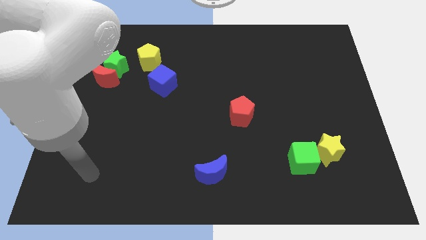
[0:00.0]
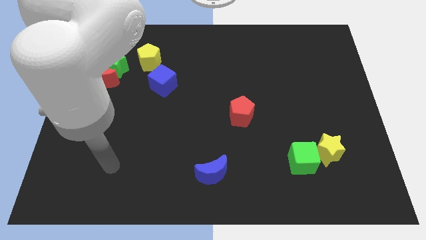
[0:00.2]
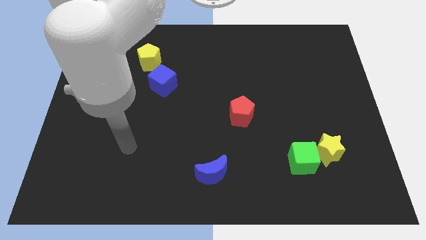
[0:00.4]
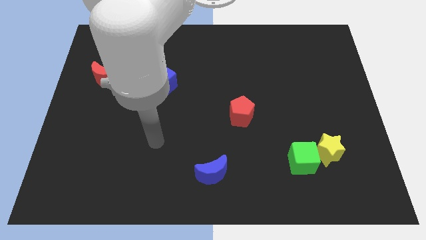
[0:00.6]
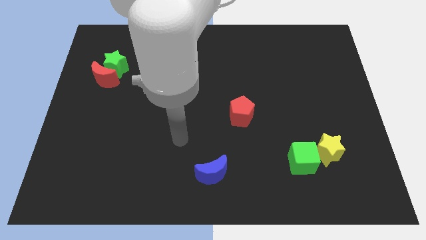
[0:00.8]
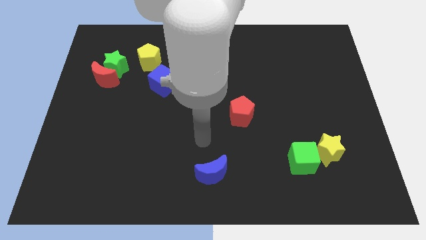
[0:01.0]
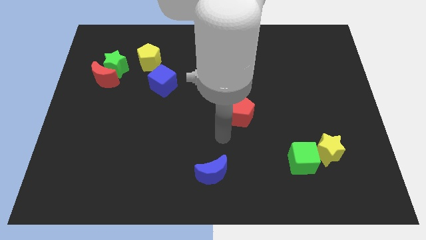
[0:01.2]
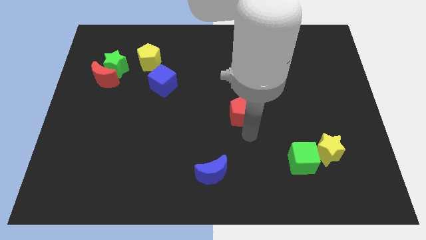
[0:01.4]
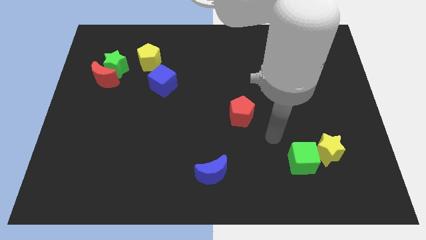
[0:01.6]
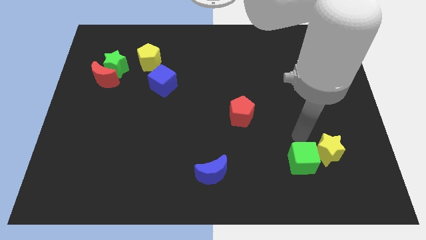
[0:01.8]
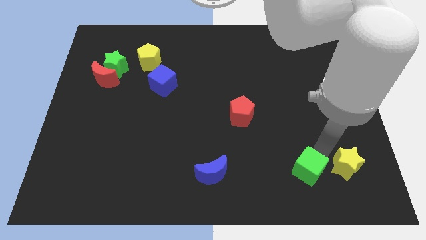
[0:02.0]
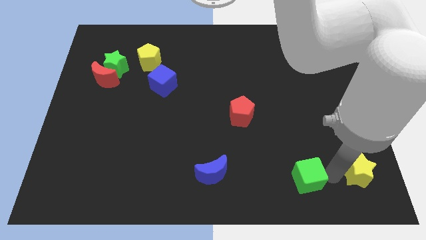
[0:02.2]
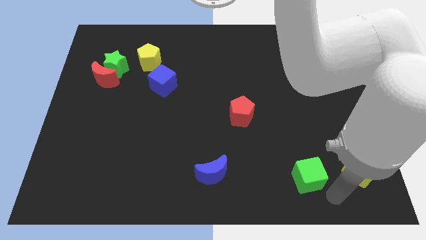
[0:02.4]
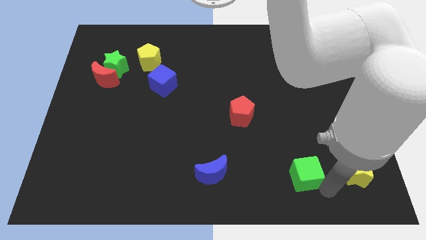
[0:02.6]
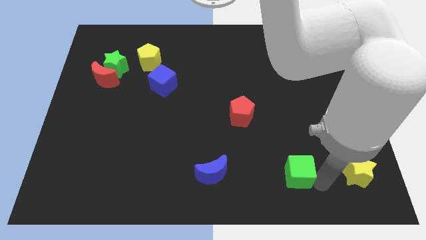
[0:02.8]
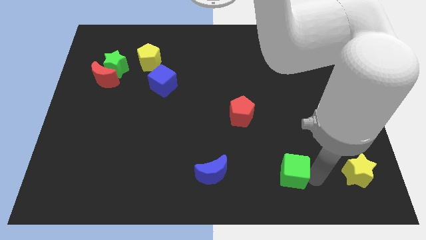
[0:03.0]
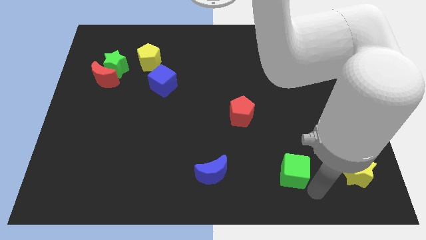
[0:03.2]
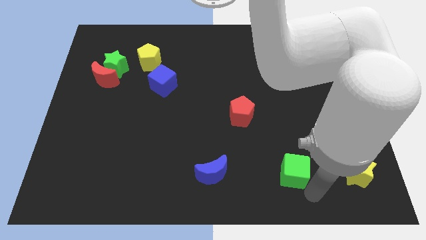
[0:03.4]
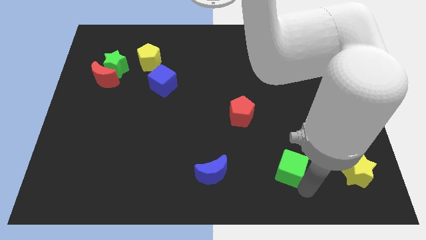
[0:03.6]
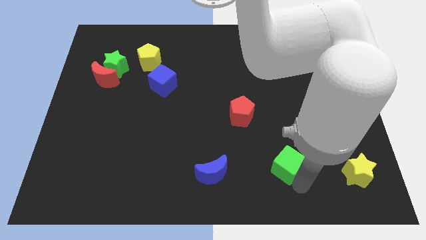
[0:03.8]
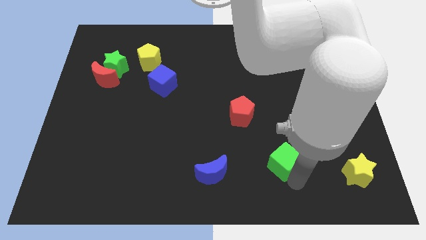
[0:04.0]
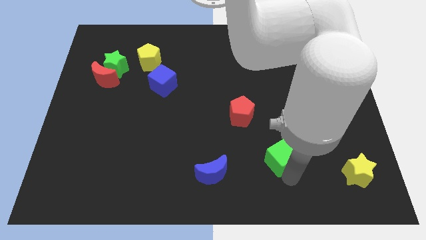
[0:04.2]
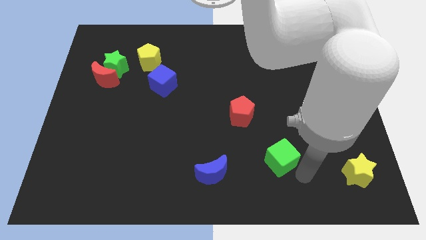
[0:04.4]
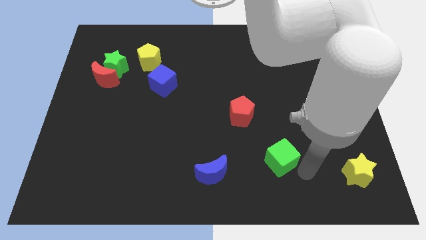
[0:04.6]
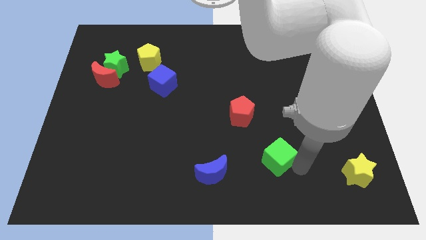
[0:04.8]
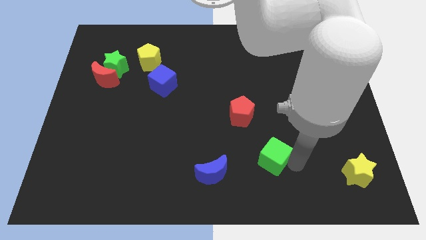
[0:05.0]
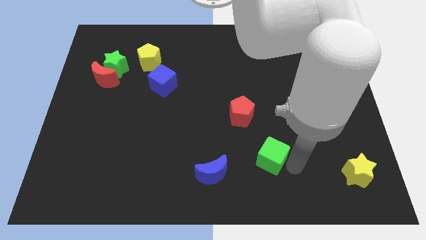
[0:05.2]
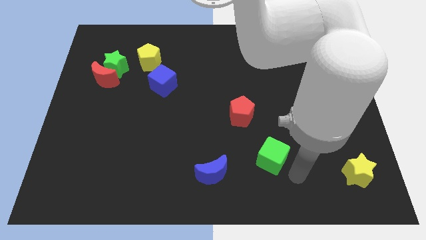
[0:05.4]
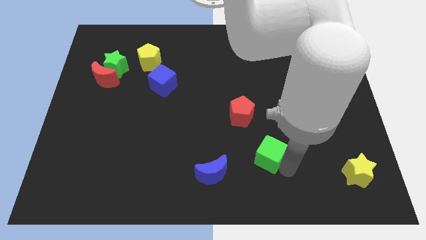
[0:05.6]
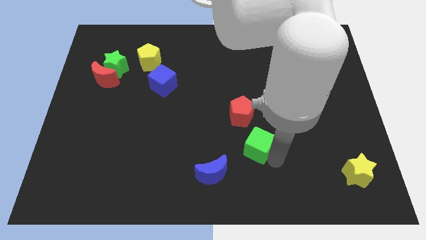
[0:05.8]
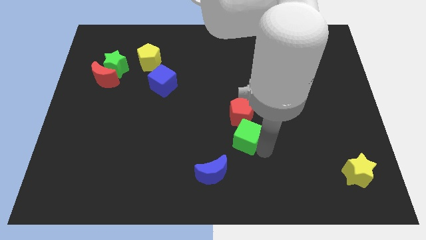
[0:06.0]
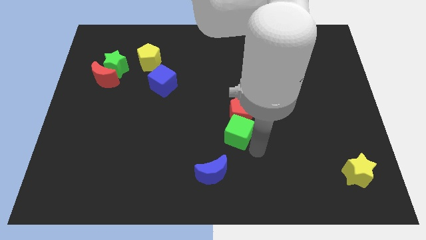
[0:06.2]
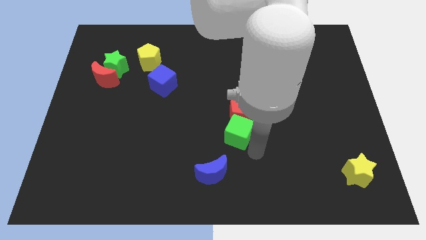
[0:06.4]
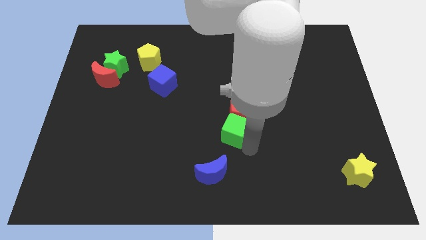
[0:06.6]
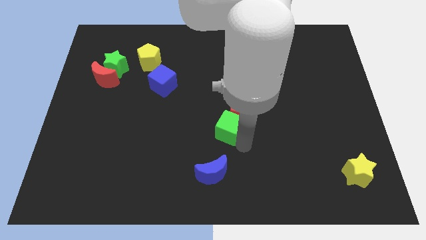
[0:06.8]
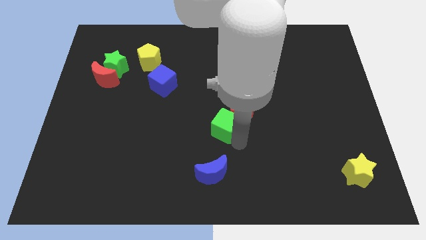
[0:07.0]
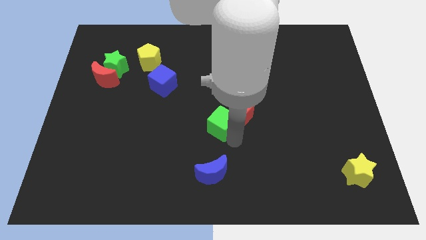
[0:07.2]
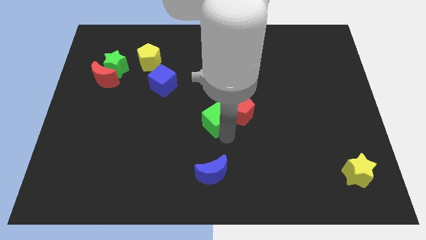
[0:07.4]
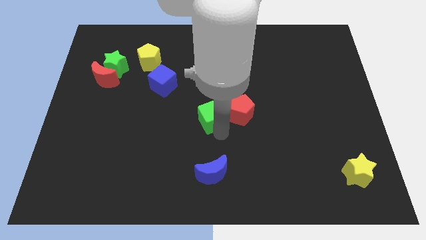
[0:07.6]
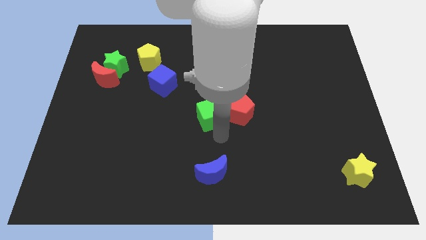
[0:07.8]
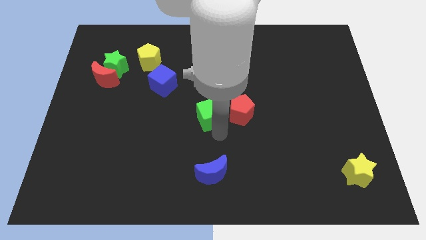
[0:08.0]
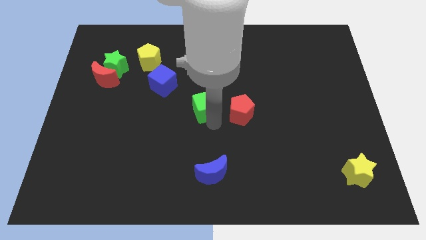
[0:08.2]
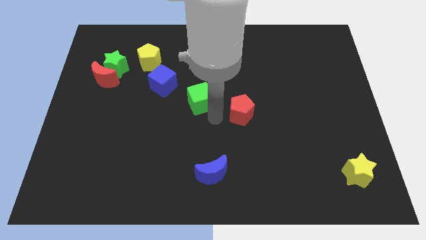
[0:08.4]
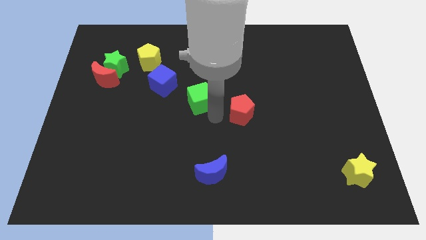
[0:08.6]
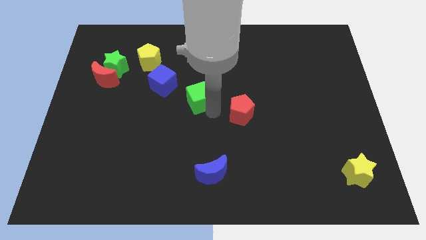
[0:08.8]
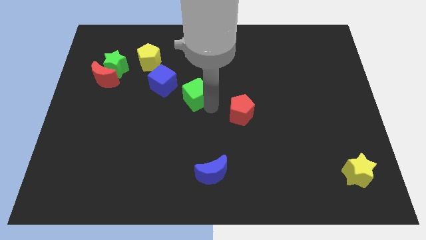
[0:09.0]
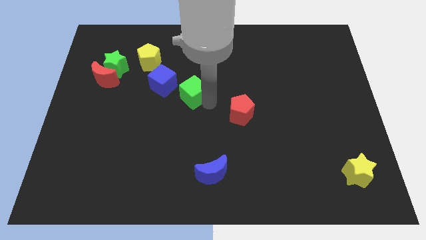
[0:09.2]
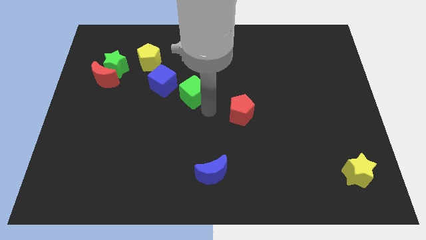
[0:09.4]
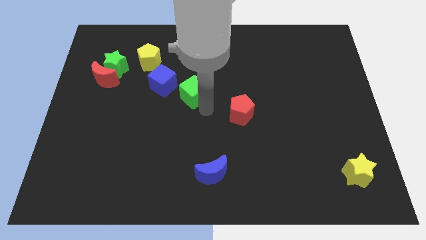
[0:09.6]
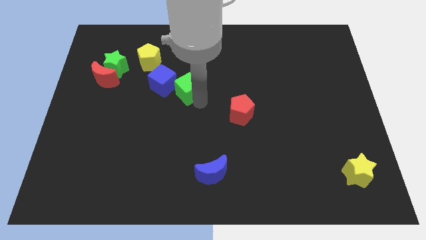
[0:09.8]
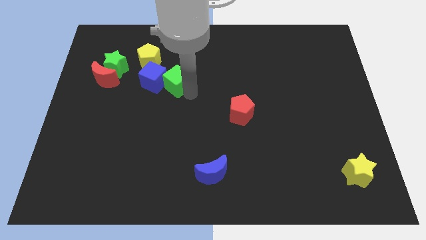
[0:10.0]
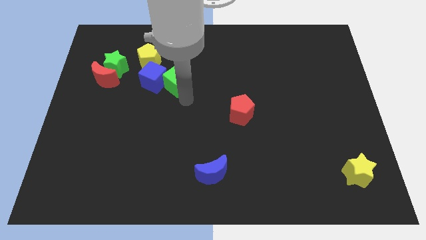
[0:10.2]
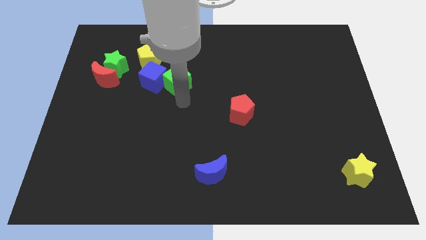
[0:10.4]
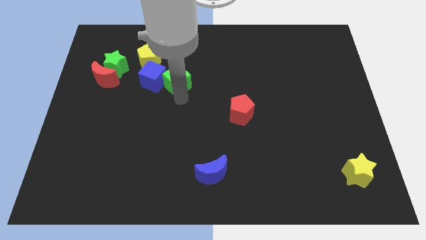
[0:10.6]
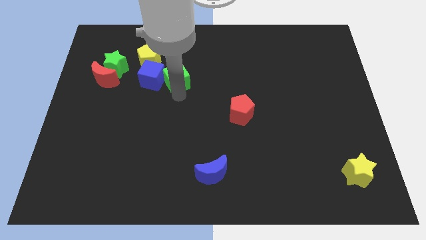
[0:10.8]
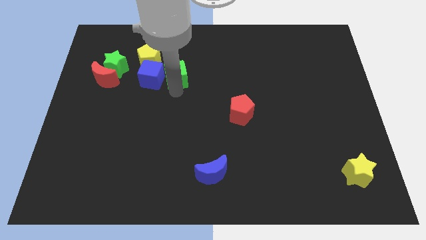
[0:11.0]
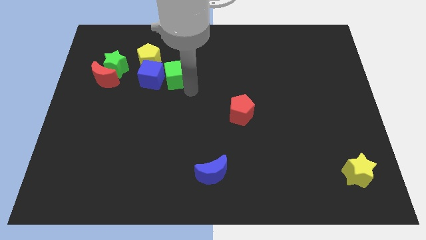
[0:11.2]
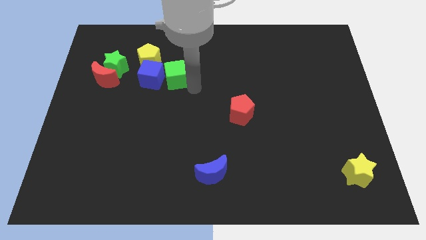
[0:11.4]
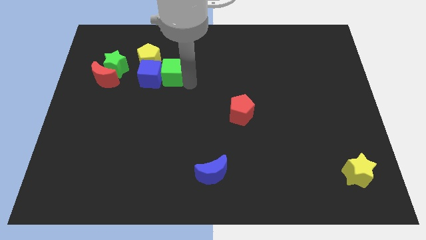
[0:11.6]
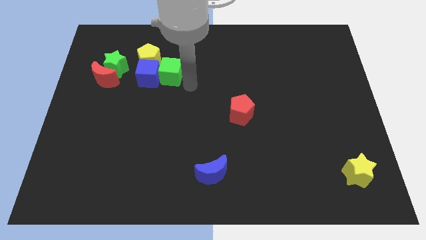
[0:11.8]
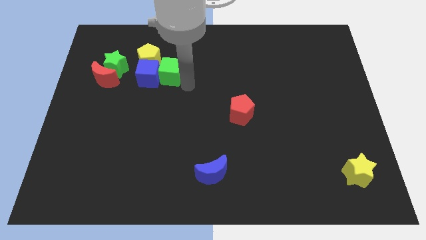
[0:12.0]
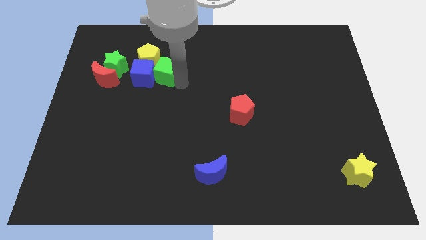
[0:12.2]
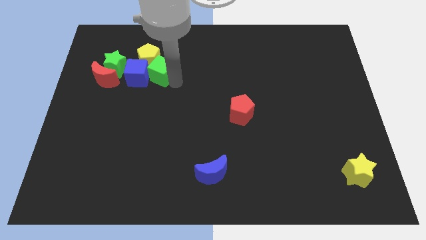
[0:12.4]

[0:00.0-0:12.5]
push the green cube close to the yellow pentagon

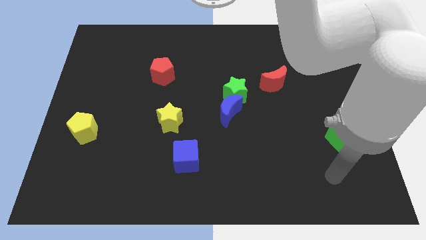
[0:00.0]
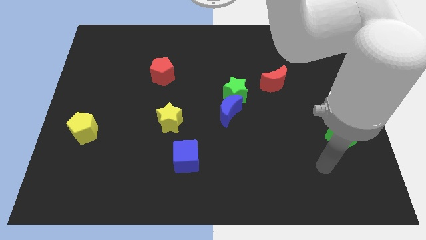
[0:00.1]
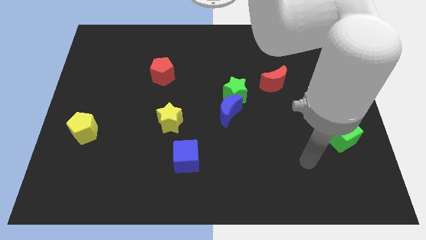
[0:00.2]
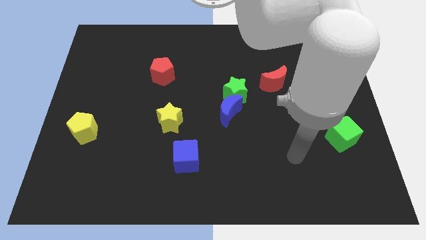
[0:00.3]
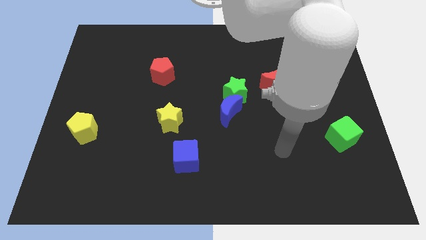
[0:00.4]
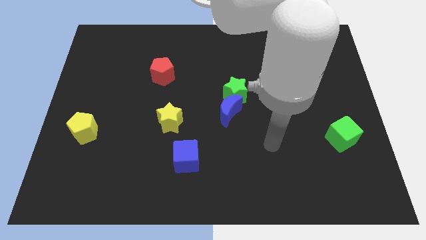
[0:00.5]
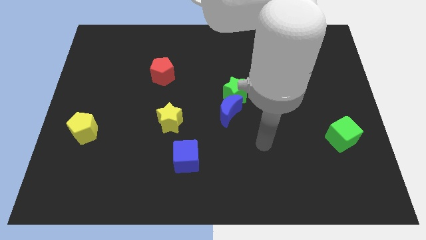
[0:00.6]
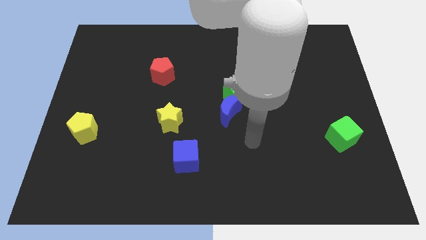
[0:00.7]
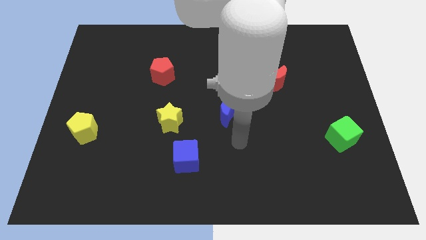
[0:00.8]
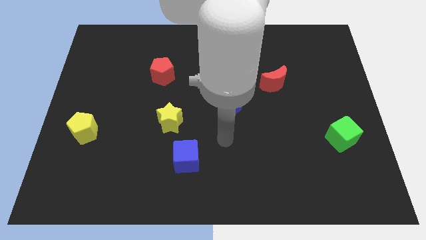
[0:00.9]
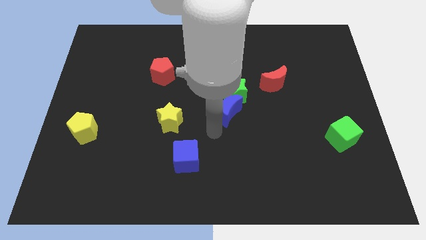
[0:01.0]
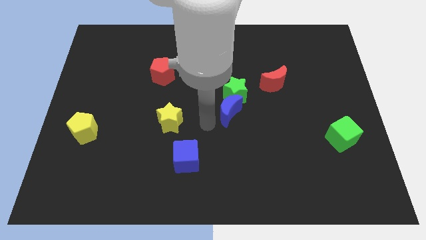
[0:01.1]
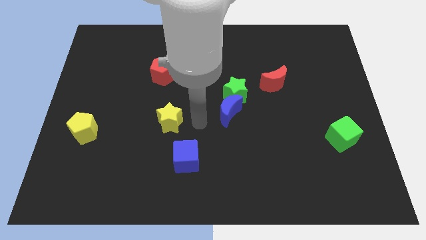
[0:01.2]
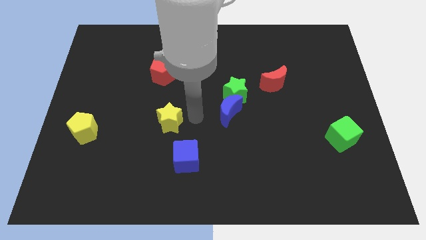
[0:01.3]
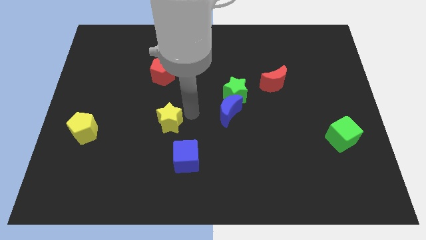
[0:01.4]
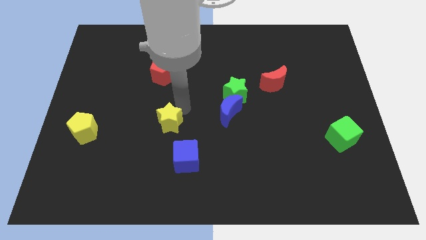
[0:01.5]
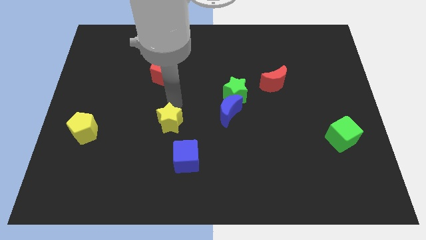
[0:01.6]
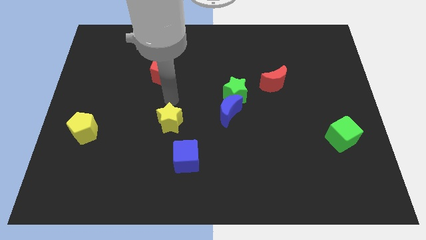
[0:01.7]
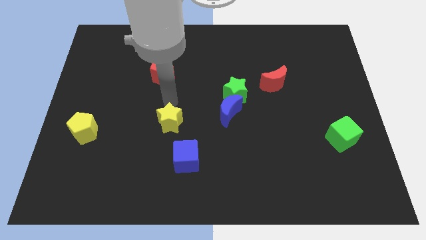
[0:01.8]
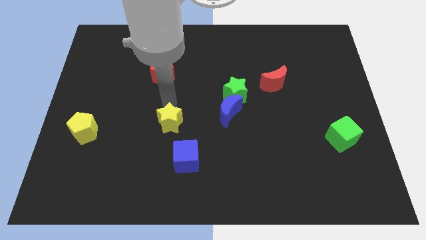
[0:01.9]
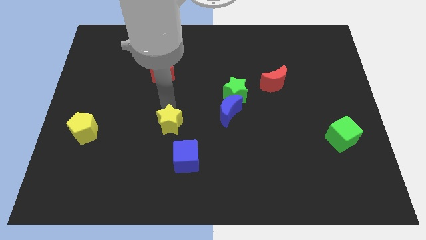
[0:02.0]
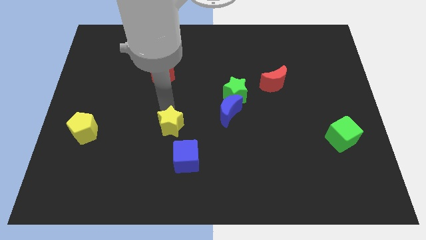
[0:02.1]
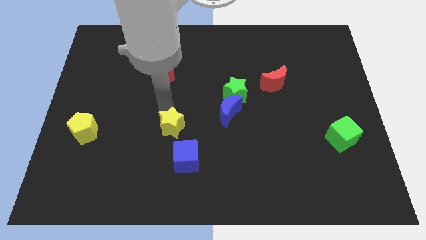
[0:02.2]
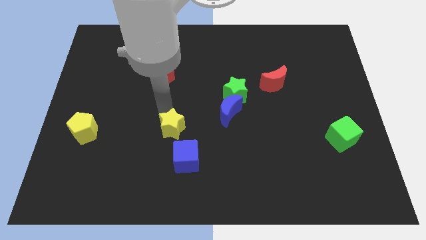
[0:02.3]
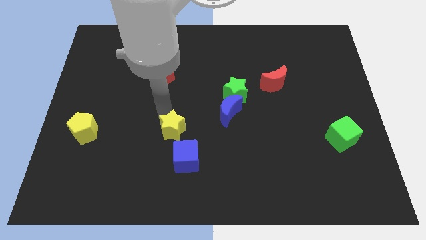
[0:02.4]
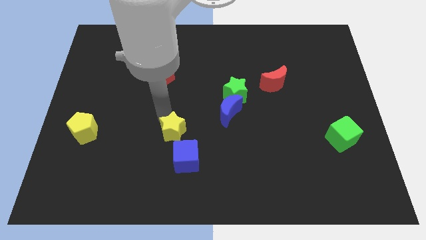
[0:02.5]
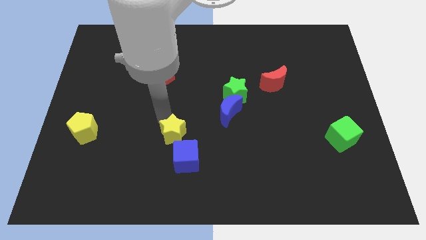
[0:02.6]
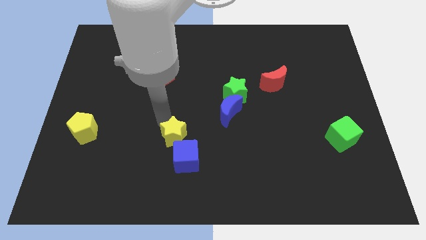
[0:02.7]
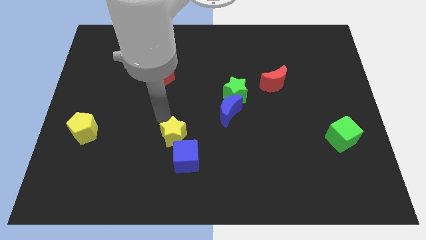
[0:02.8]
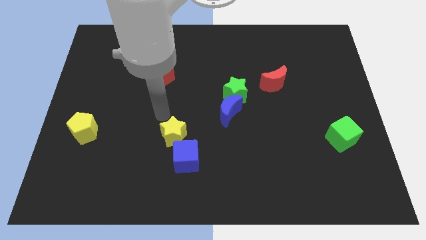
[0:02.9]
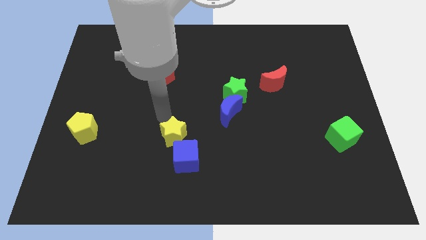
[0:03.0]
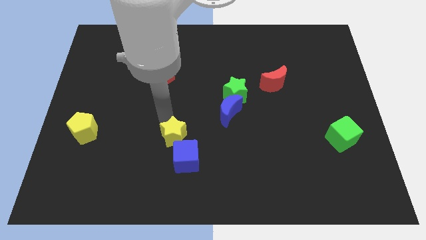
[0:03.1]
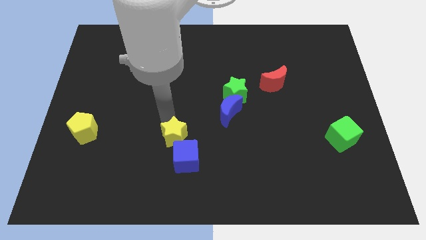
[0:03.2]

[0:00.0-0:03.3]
move the yellow star next to the blue cube
